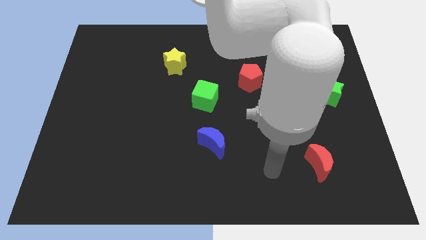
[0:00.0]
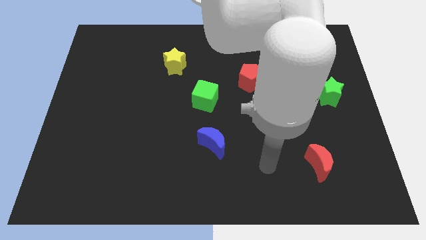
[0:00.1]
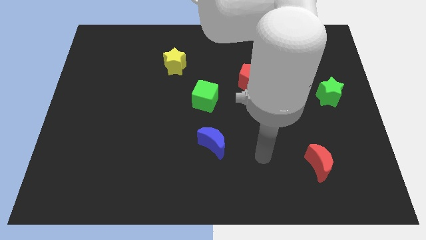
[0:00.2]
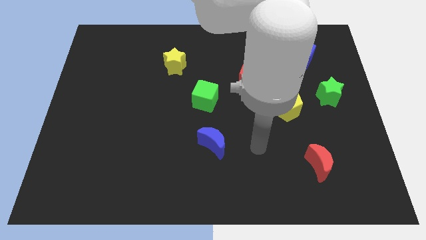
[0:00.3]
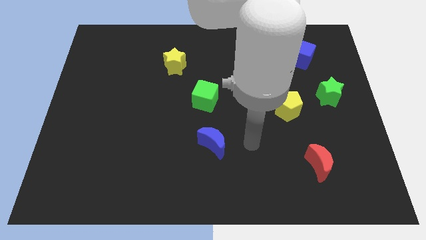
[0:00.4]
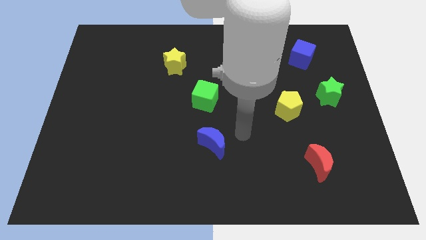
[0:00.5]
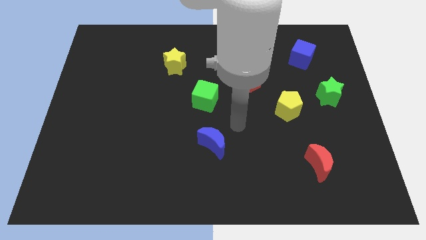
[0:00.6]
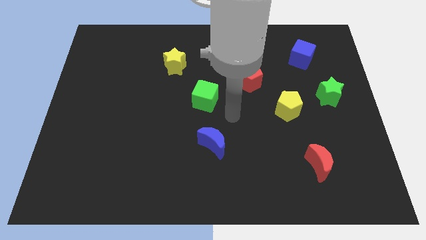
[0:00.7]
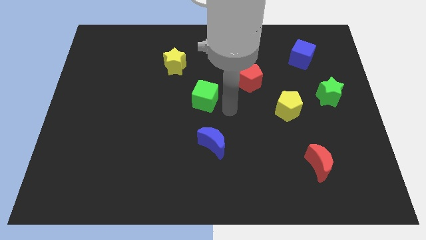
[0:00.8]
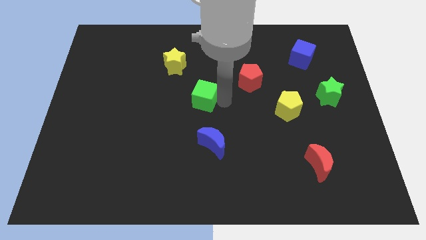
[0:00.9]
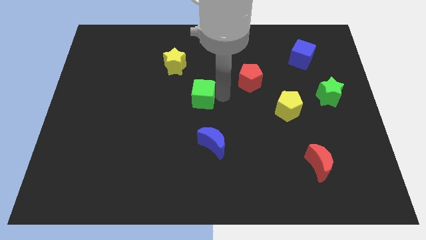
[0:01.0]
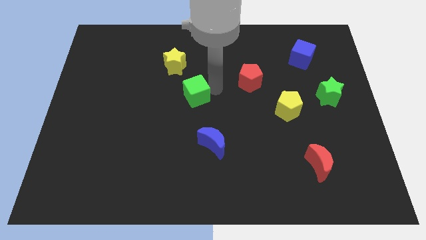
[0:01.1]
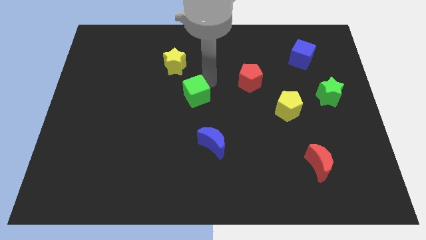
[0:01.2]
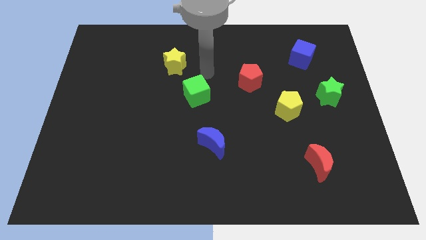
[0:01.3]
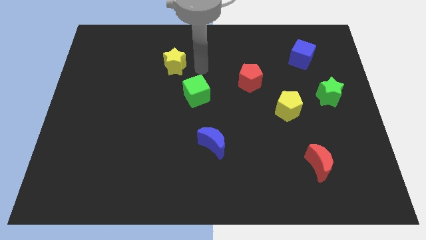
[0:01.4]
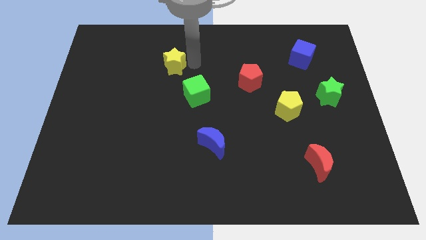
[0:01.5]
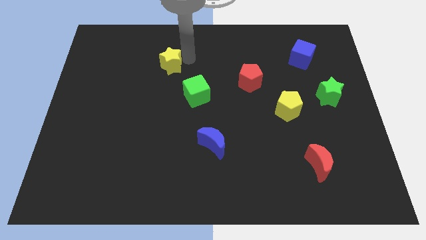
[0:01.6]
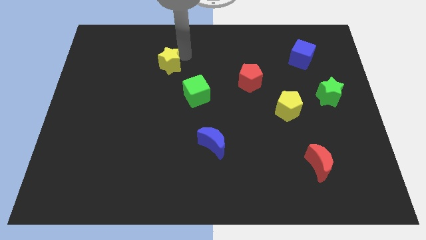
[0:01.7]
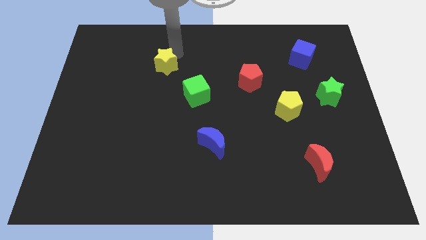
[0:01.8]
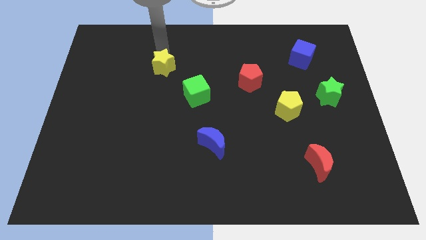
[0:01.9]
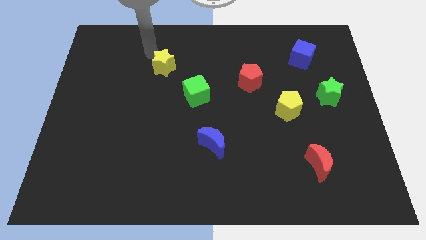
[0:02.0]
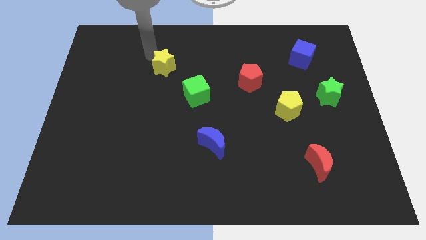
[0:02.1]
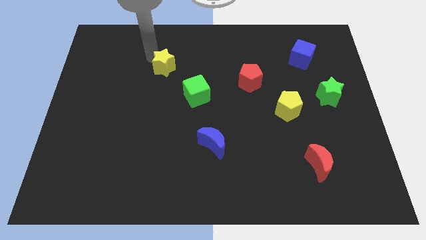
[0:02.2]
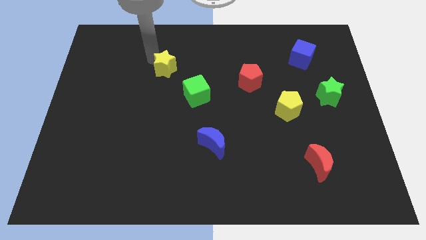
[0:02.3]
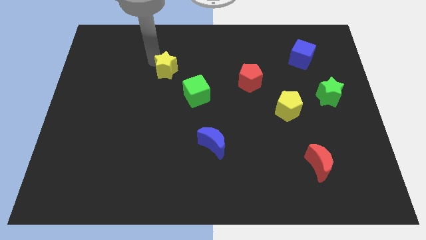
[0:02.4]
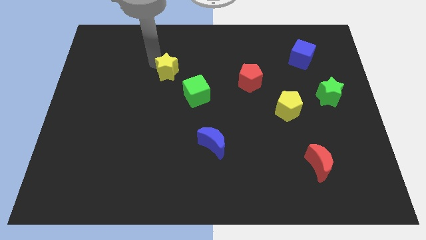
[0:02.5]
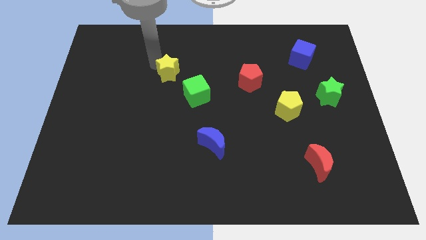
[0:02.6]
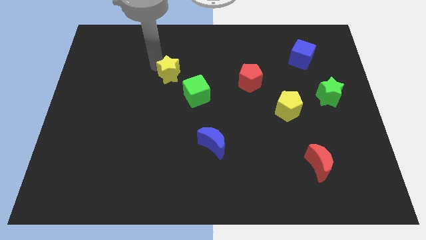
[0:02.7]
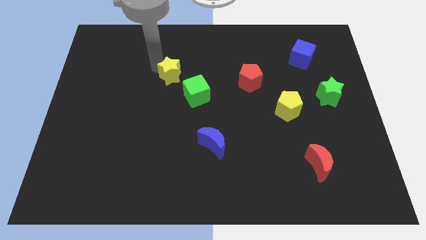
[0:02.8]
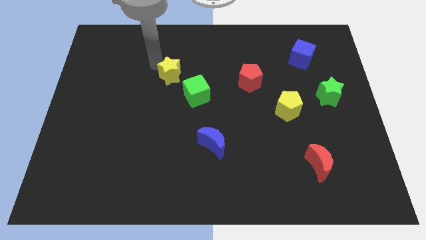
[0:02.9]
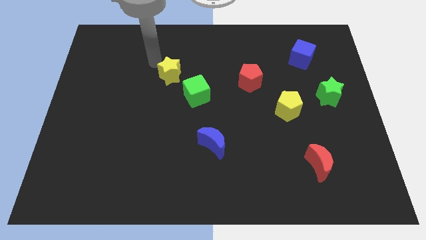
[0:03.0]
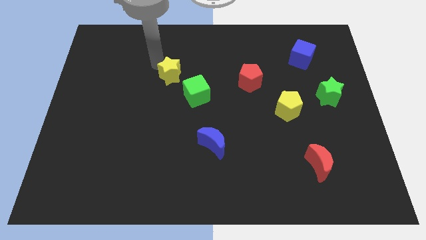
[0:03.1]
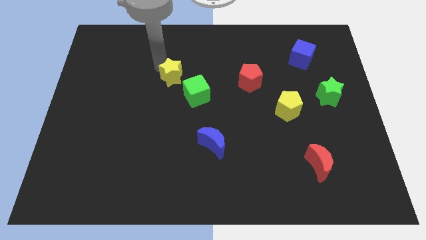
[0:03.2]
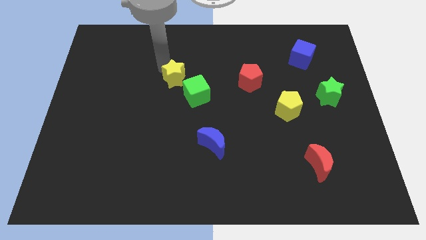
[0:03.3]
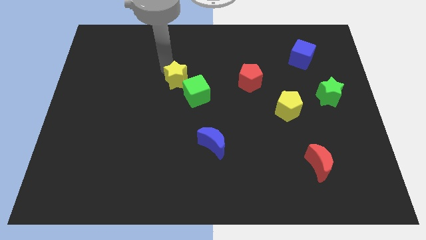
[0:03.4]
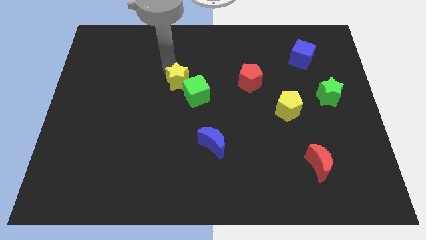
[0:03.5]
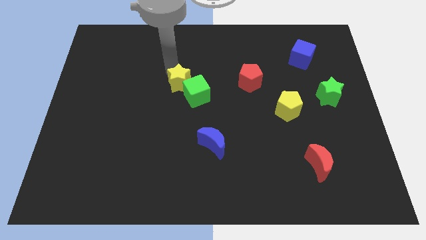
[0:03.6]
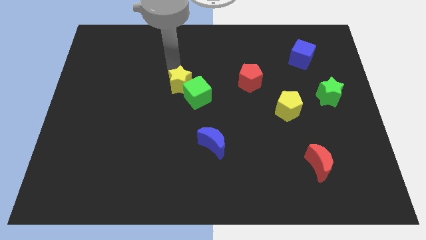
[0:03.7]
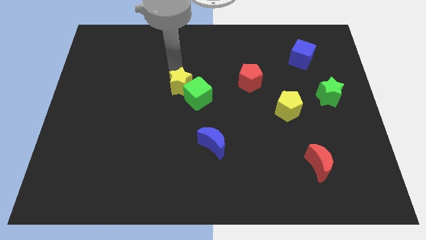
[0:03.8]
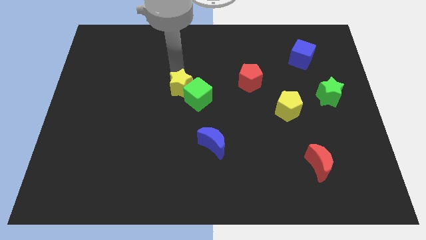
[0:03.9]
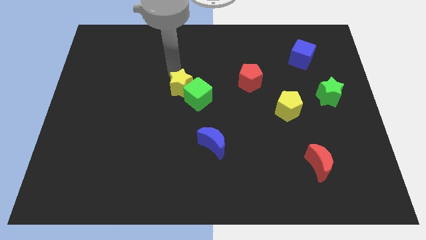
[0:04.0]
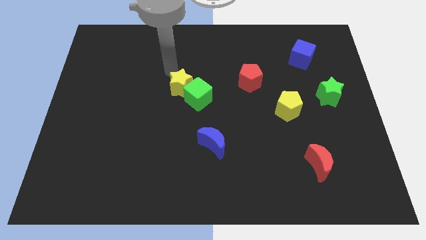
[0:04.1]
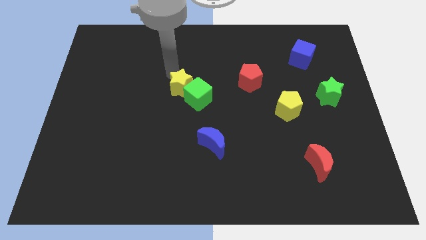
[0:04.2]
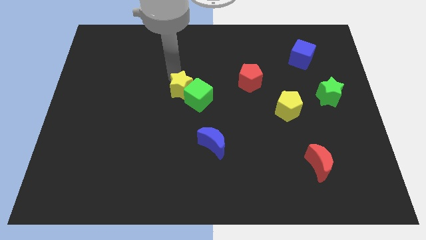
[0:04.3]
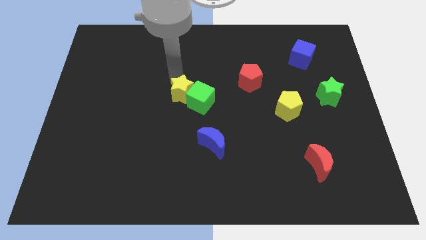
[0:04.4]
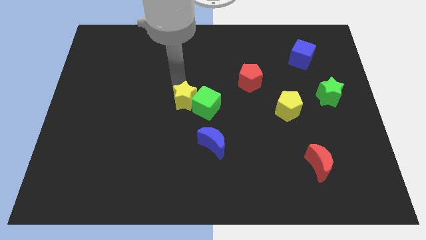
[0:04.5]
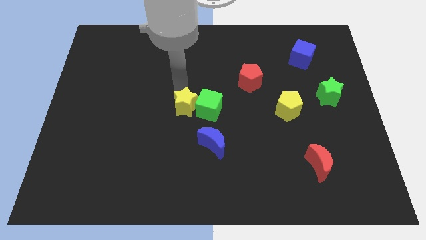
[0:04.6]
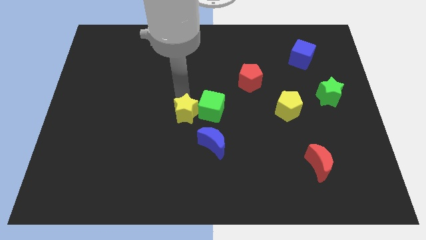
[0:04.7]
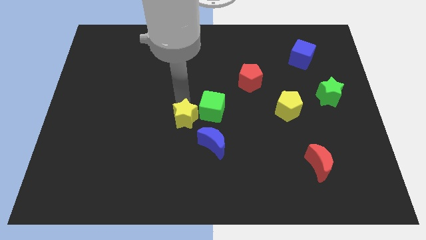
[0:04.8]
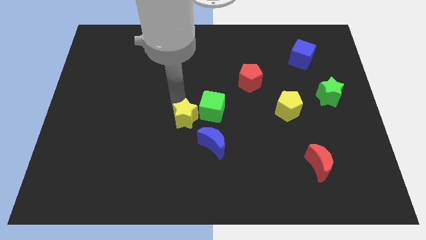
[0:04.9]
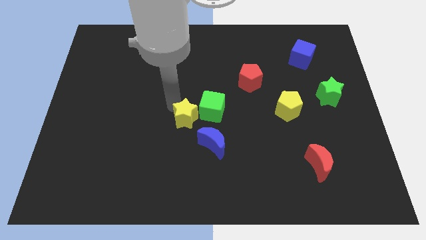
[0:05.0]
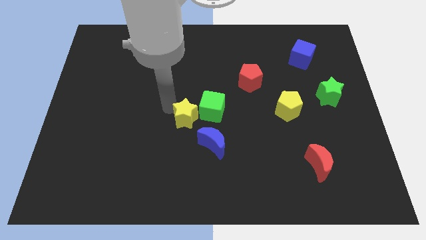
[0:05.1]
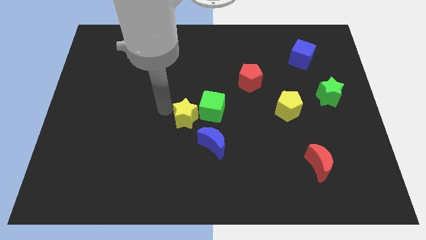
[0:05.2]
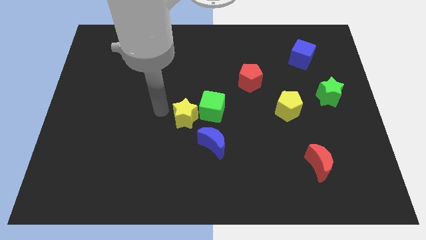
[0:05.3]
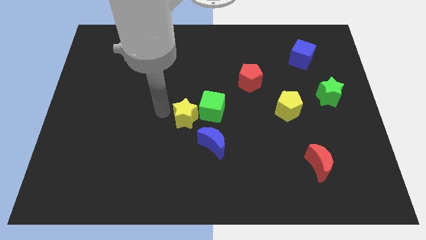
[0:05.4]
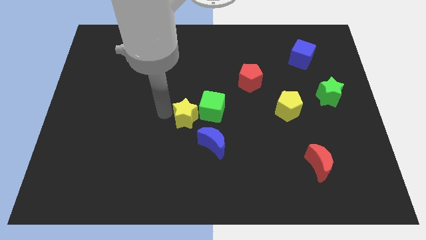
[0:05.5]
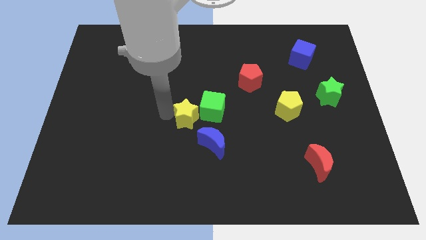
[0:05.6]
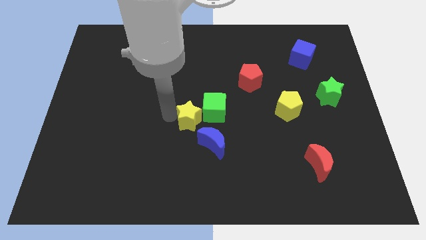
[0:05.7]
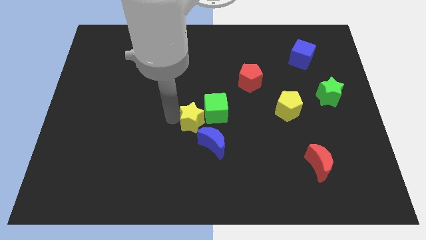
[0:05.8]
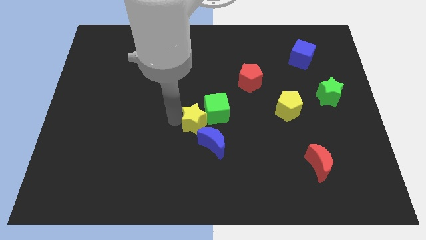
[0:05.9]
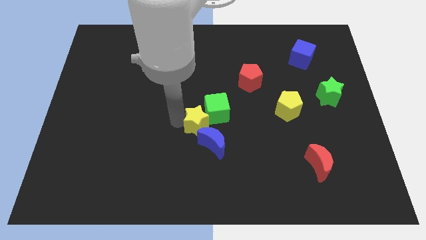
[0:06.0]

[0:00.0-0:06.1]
move the yellow star close to the blue moon

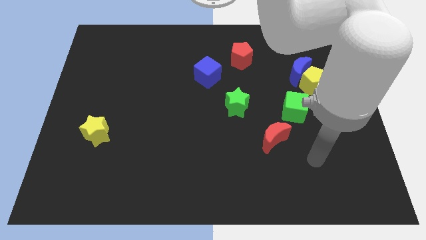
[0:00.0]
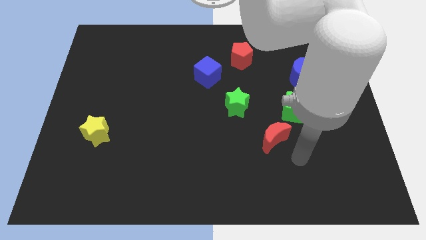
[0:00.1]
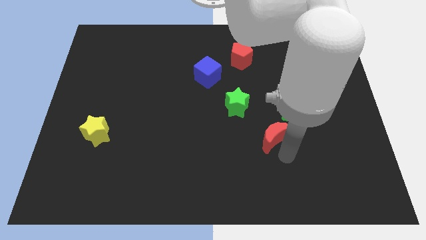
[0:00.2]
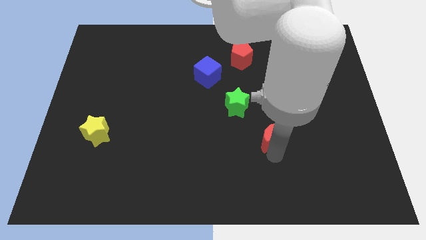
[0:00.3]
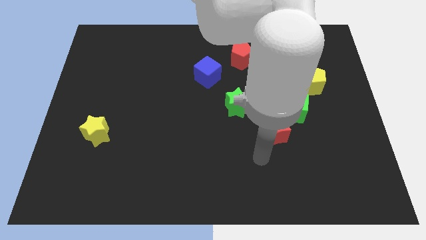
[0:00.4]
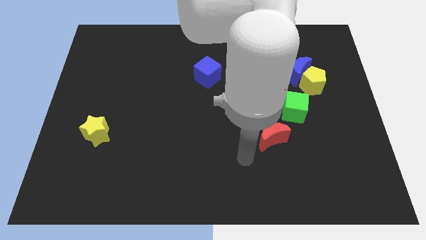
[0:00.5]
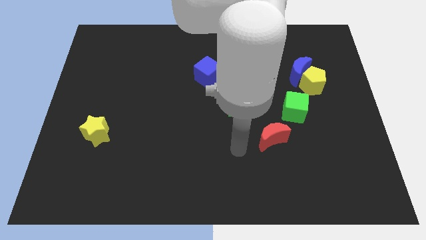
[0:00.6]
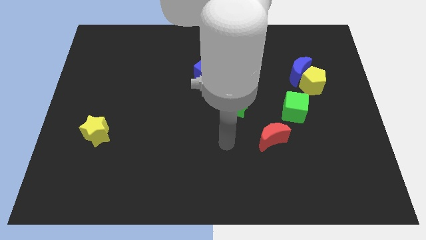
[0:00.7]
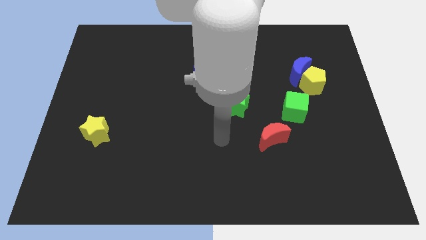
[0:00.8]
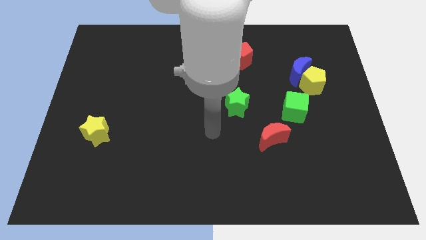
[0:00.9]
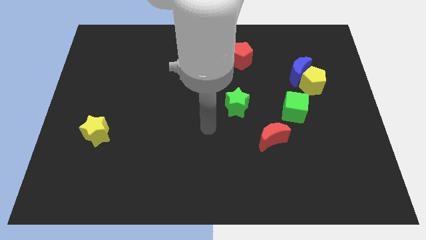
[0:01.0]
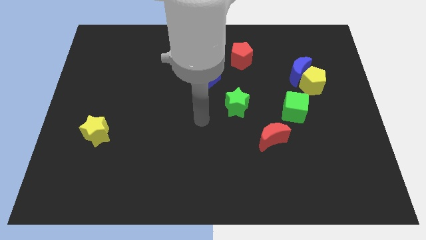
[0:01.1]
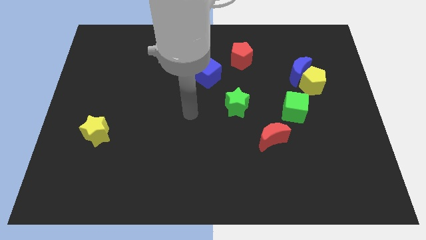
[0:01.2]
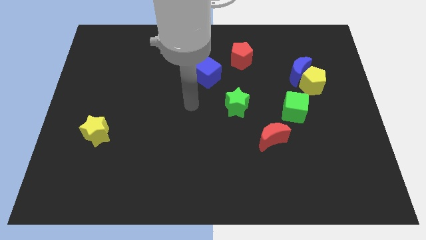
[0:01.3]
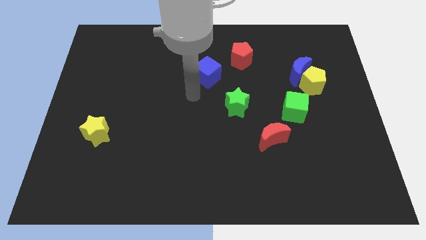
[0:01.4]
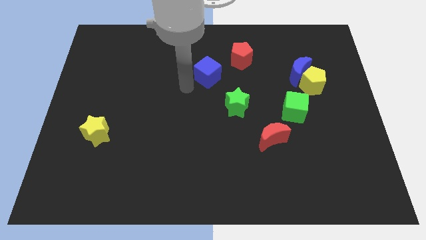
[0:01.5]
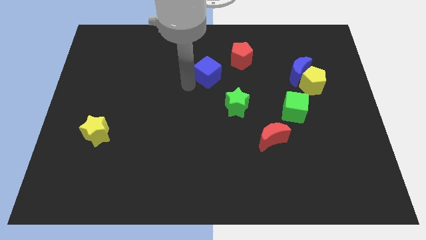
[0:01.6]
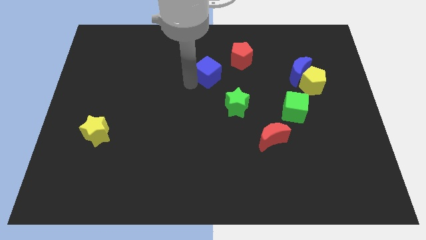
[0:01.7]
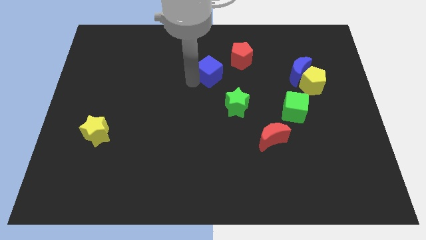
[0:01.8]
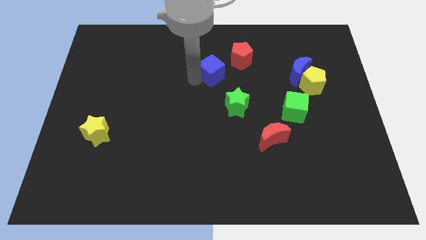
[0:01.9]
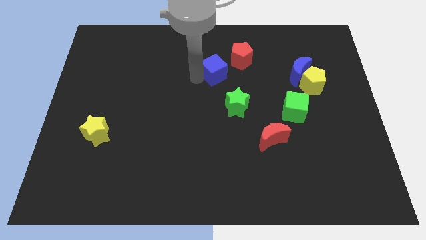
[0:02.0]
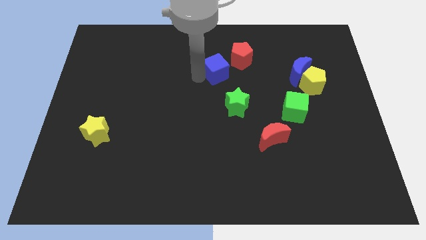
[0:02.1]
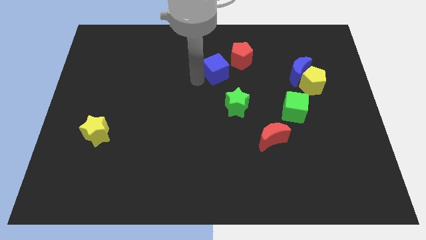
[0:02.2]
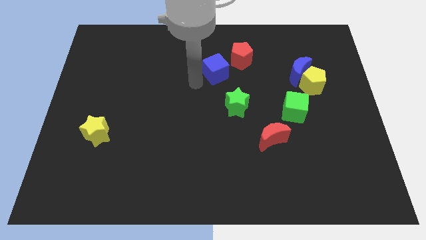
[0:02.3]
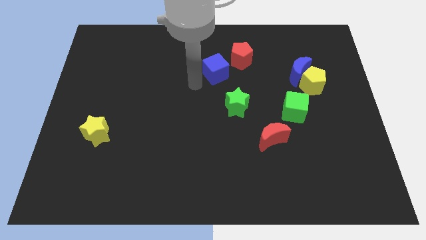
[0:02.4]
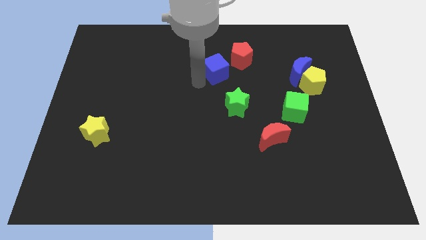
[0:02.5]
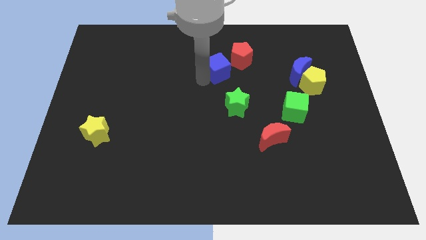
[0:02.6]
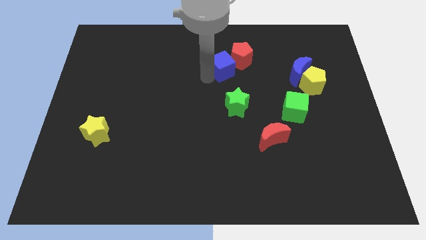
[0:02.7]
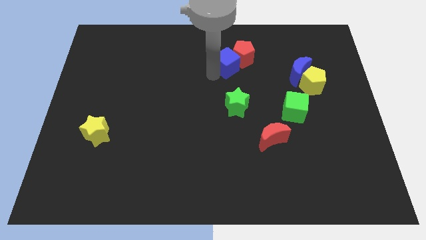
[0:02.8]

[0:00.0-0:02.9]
put the blue cube to the red pentagon
